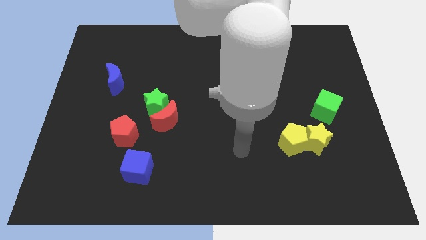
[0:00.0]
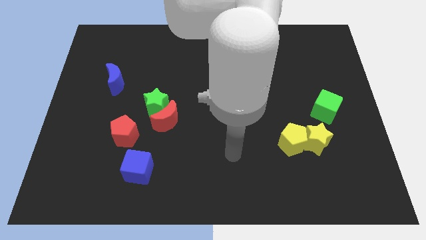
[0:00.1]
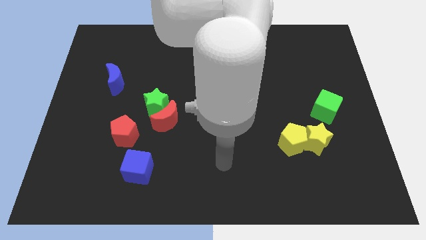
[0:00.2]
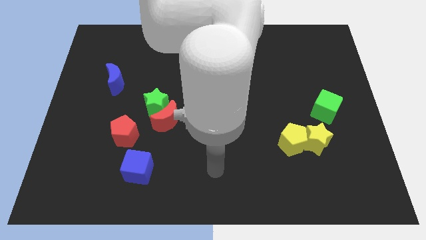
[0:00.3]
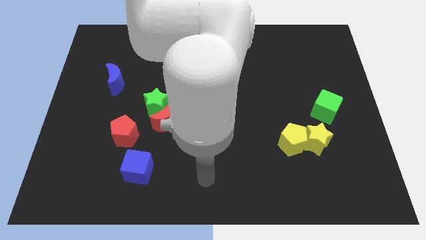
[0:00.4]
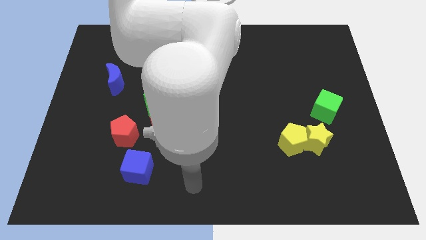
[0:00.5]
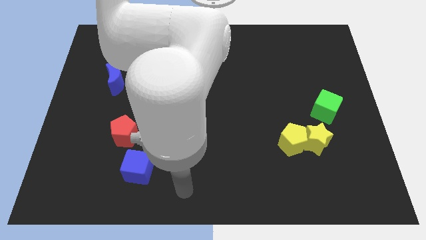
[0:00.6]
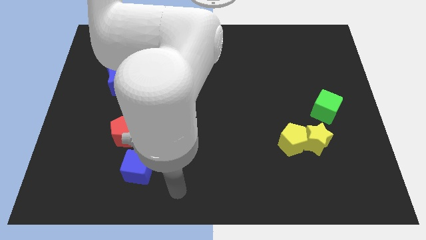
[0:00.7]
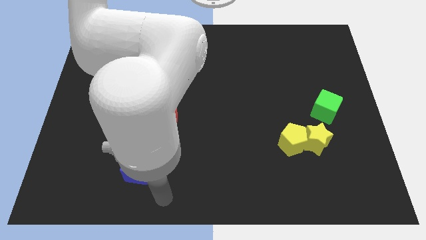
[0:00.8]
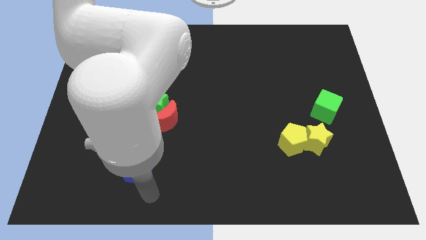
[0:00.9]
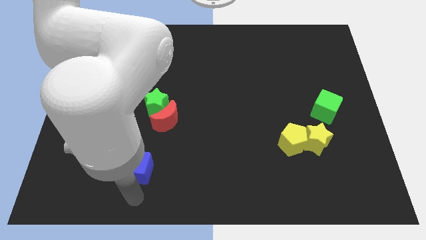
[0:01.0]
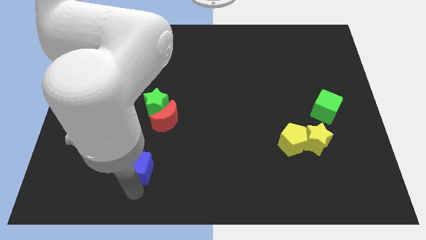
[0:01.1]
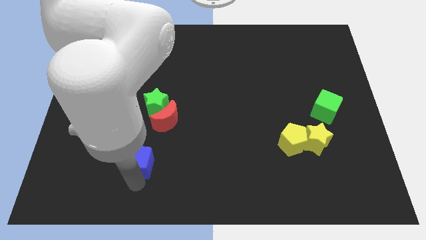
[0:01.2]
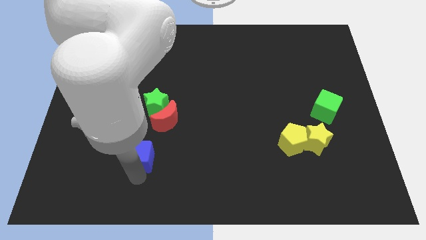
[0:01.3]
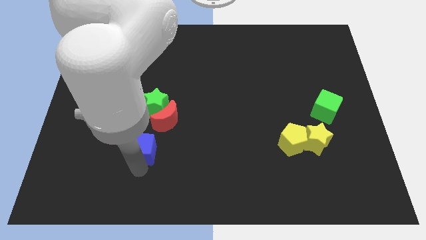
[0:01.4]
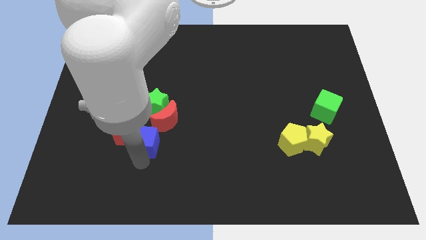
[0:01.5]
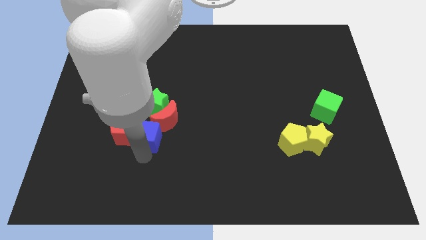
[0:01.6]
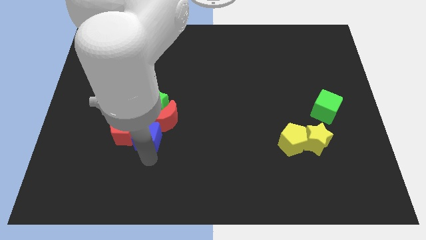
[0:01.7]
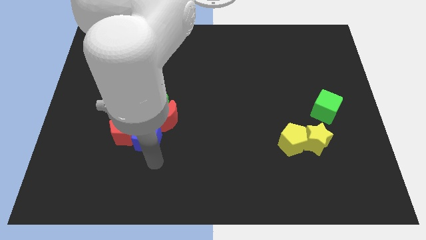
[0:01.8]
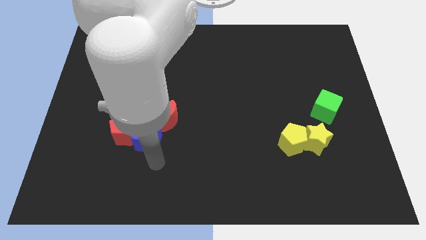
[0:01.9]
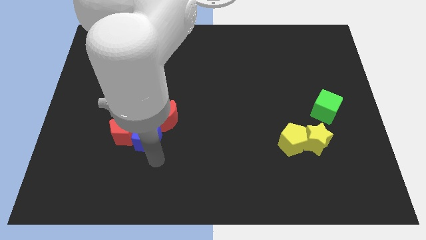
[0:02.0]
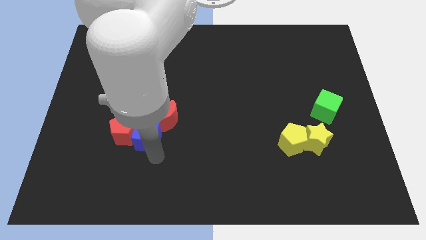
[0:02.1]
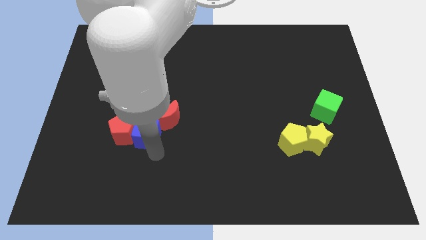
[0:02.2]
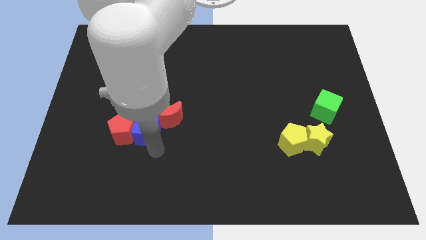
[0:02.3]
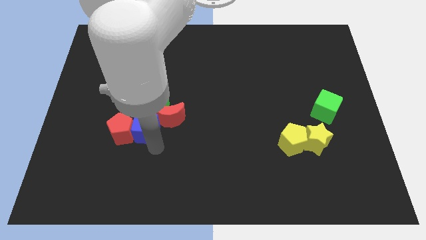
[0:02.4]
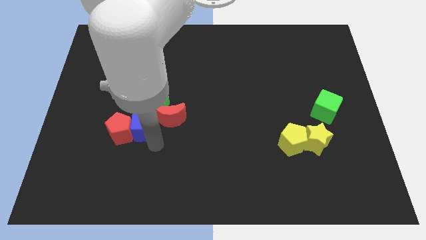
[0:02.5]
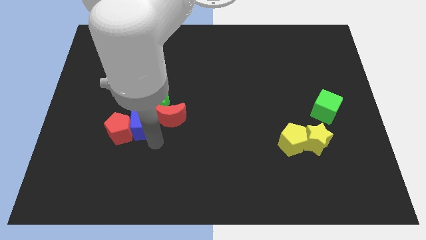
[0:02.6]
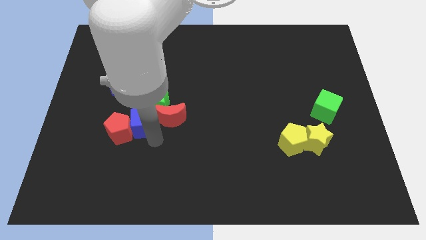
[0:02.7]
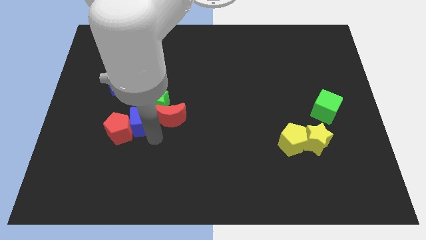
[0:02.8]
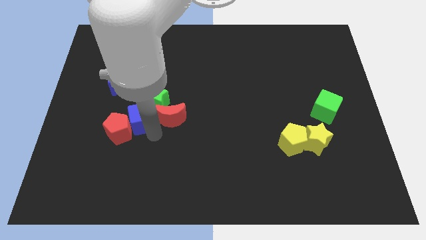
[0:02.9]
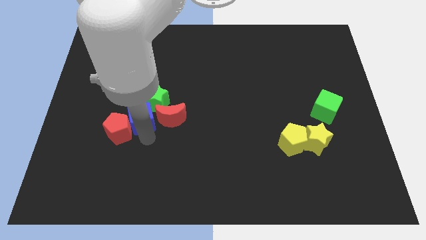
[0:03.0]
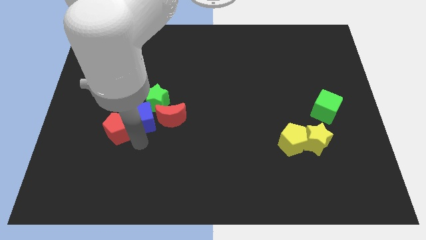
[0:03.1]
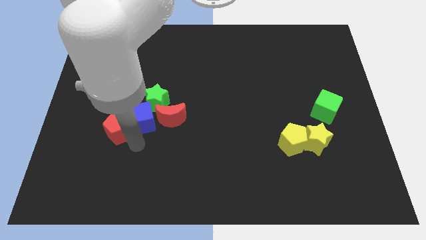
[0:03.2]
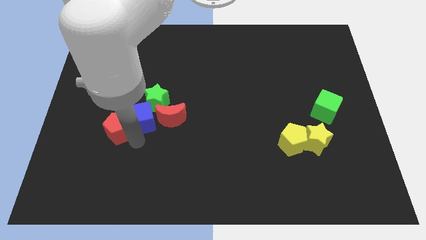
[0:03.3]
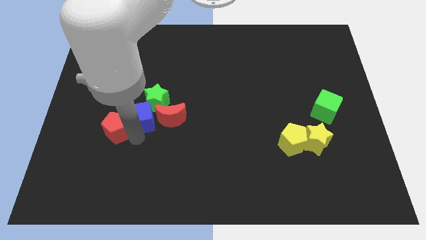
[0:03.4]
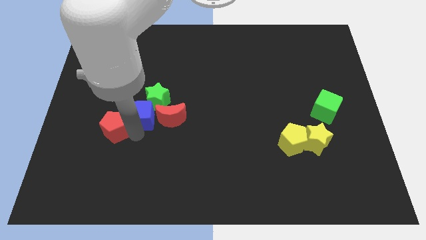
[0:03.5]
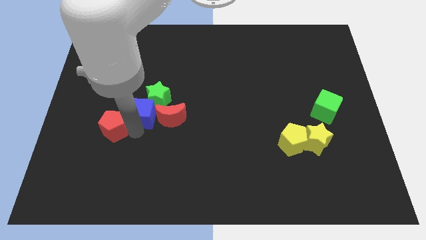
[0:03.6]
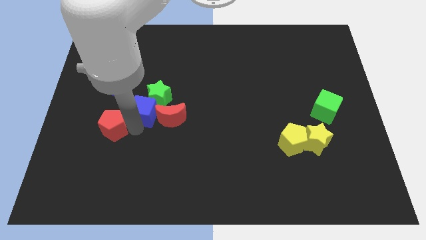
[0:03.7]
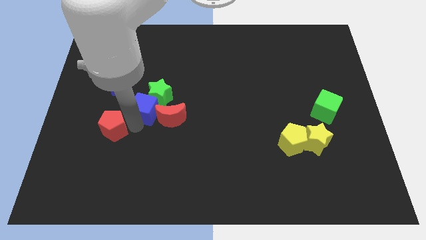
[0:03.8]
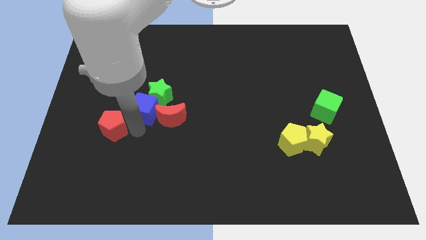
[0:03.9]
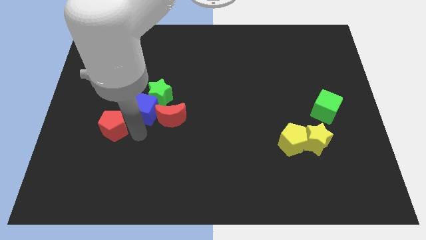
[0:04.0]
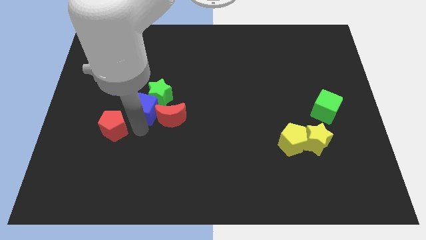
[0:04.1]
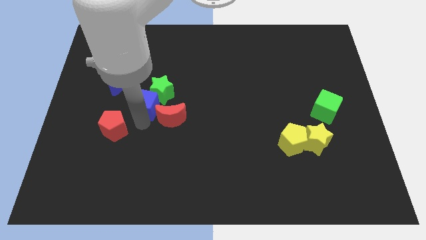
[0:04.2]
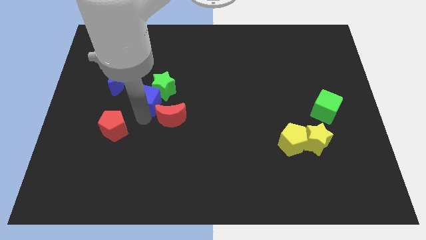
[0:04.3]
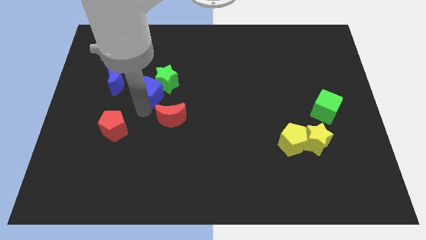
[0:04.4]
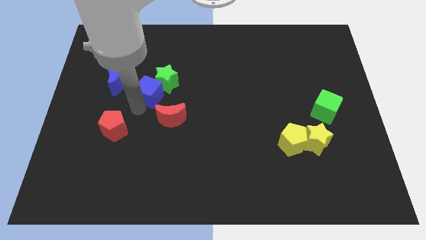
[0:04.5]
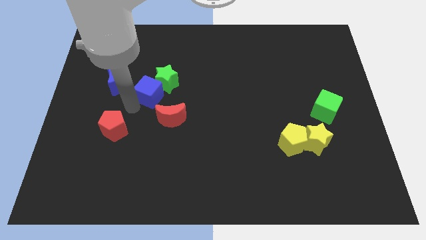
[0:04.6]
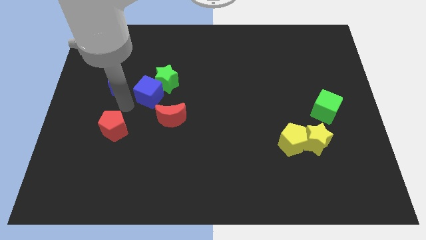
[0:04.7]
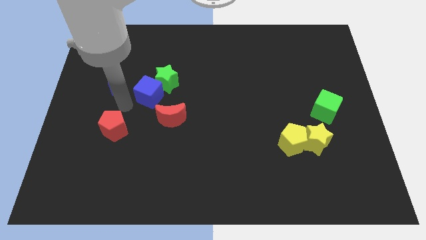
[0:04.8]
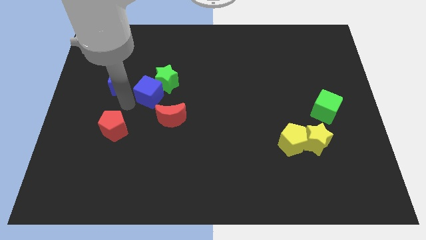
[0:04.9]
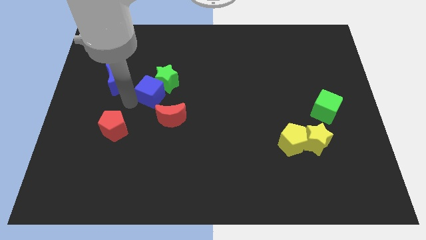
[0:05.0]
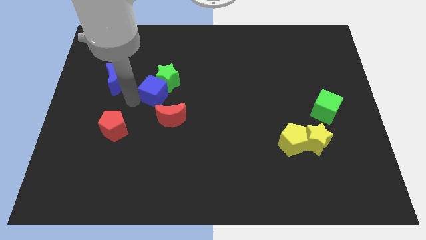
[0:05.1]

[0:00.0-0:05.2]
slide the blue cube above the red moon

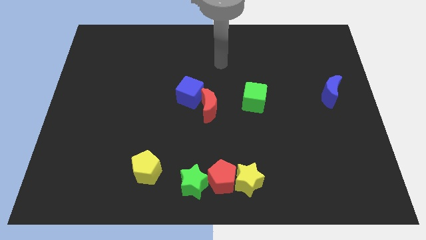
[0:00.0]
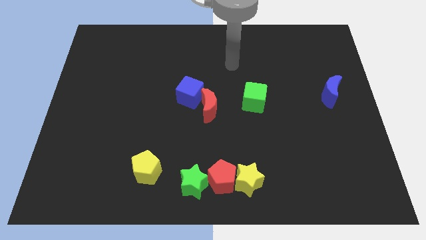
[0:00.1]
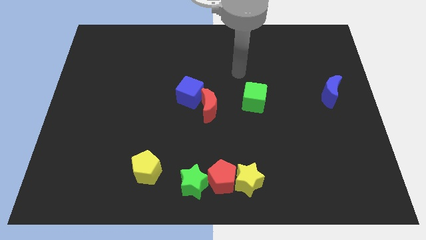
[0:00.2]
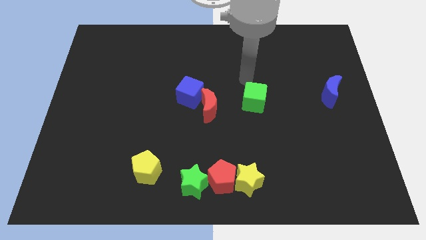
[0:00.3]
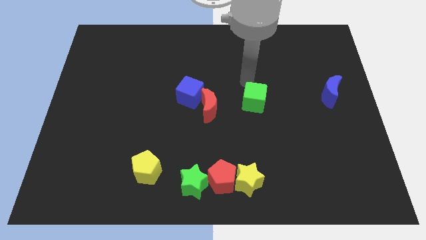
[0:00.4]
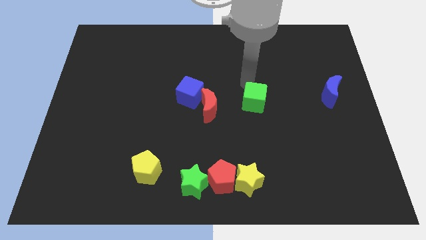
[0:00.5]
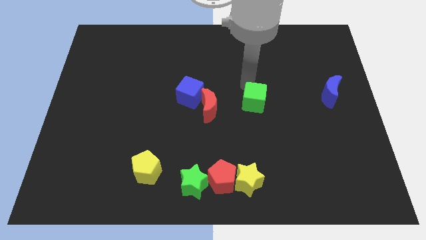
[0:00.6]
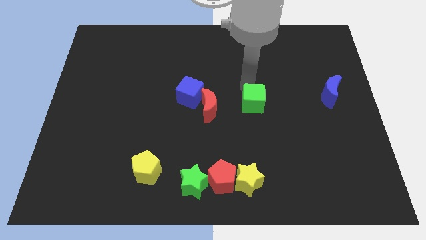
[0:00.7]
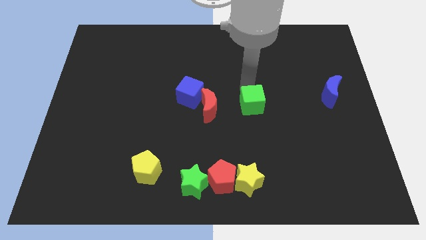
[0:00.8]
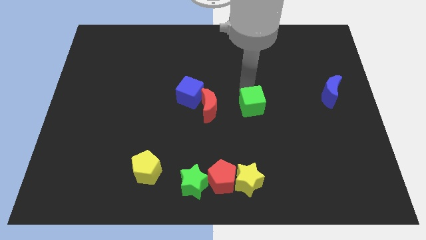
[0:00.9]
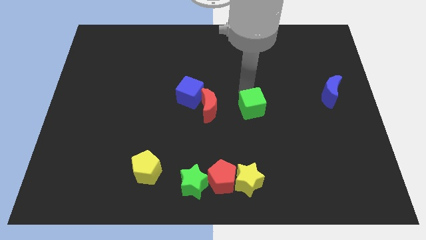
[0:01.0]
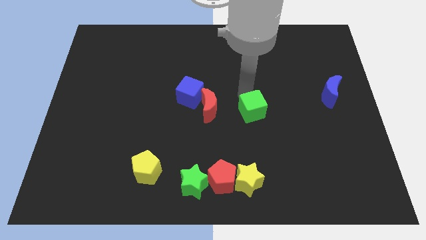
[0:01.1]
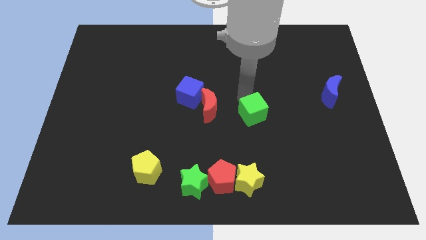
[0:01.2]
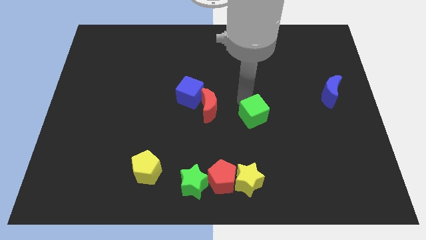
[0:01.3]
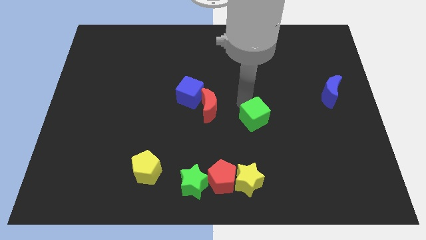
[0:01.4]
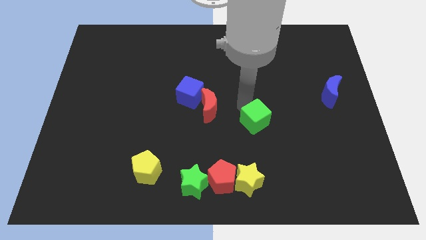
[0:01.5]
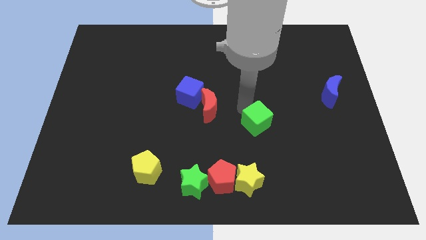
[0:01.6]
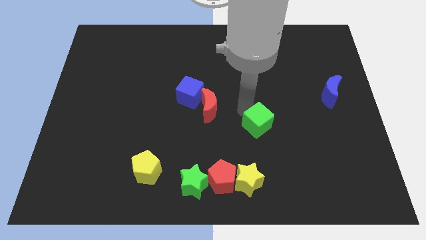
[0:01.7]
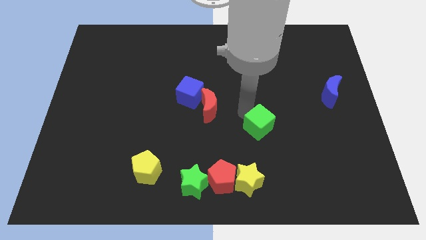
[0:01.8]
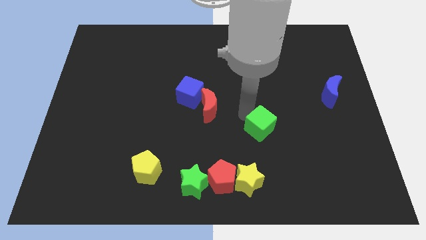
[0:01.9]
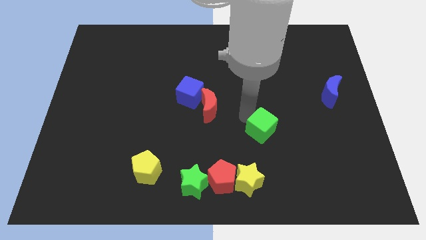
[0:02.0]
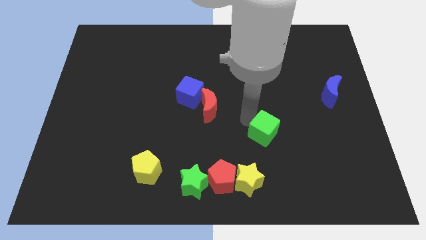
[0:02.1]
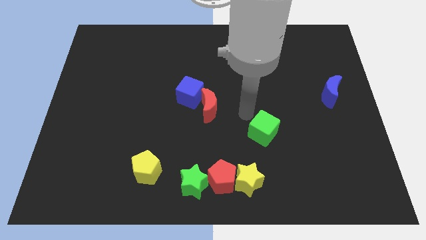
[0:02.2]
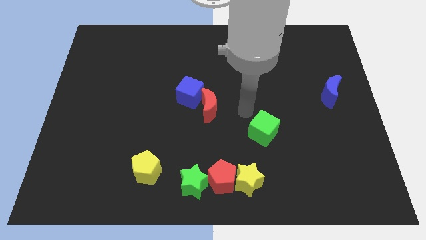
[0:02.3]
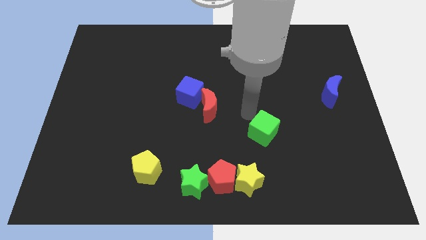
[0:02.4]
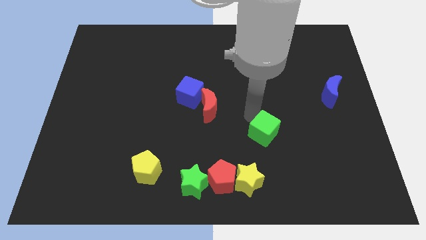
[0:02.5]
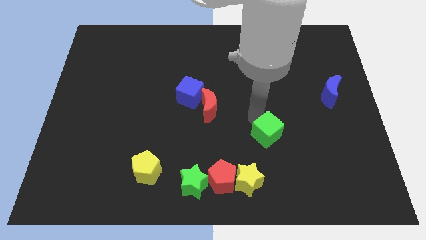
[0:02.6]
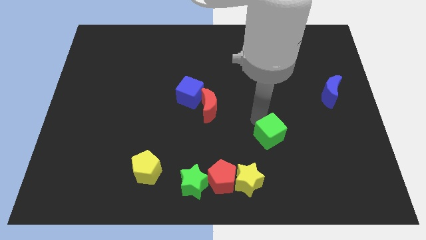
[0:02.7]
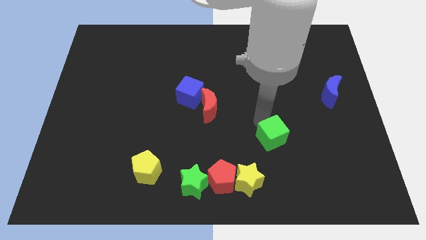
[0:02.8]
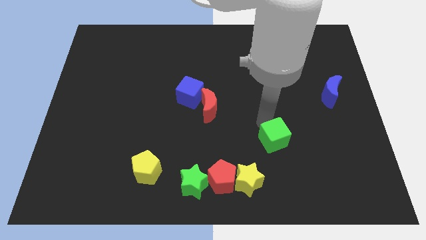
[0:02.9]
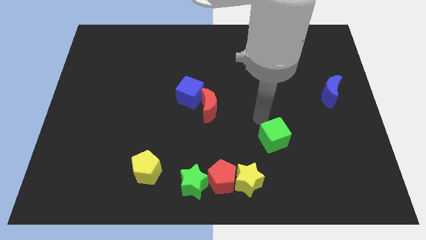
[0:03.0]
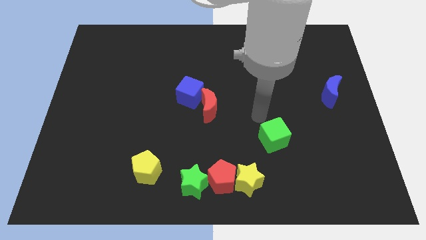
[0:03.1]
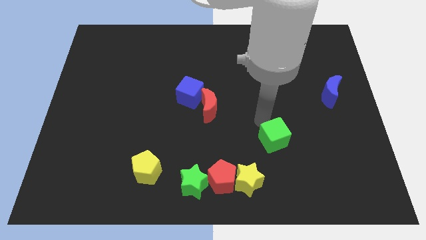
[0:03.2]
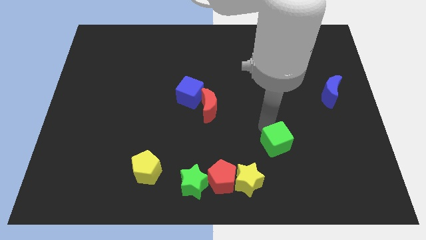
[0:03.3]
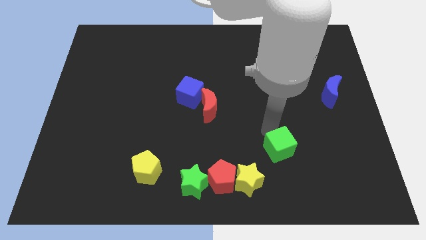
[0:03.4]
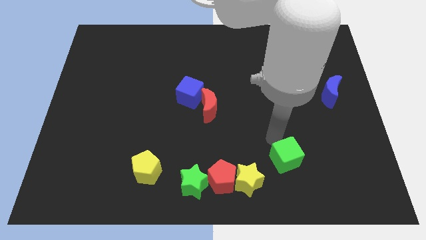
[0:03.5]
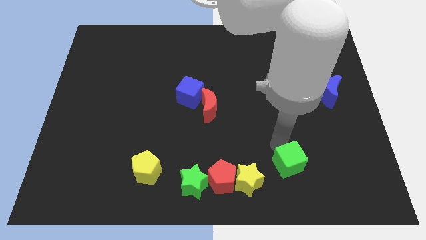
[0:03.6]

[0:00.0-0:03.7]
move the green cube just right of the yellow star
